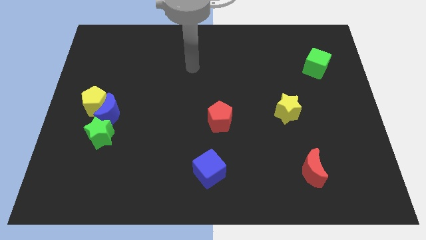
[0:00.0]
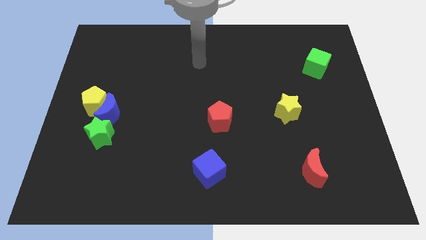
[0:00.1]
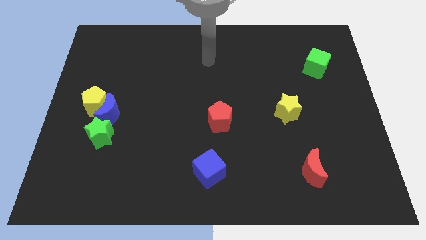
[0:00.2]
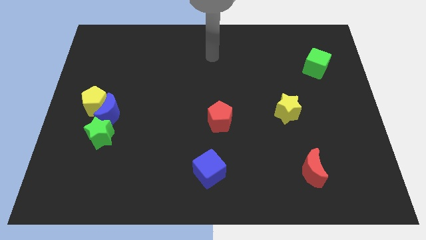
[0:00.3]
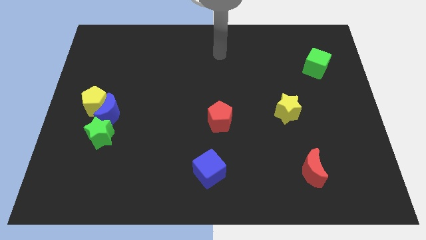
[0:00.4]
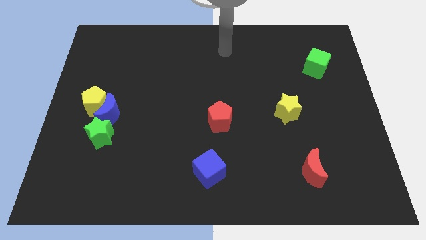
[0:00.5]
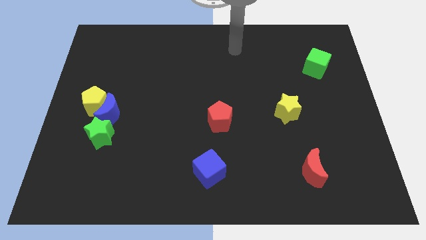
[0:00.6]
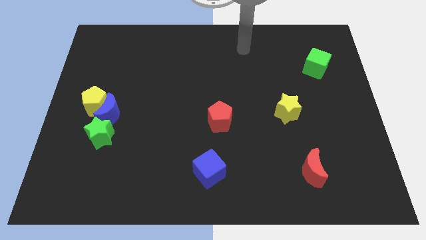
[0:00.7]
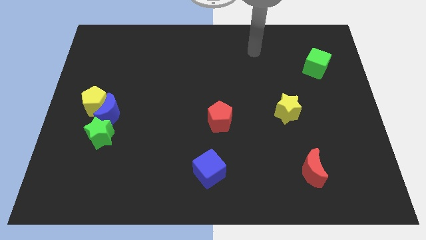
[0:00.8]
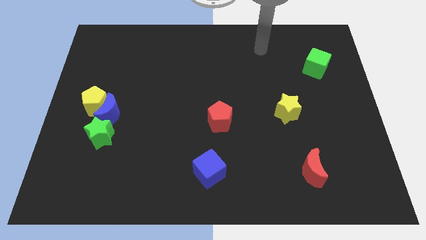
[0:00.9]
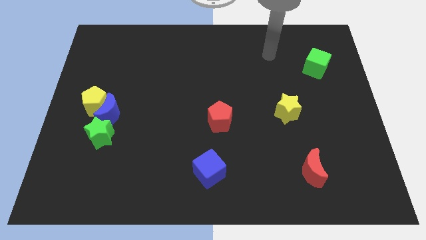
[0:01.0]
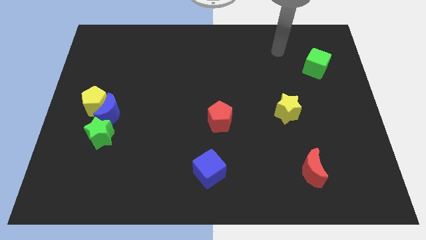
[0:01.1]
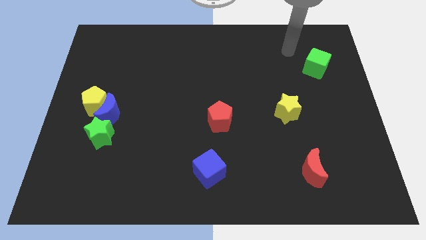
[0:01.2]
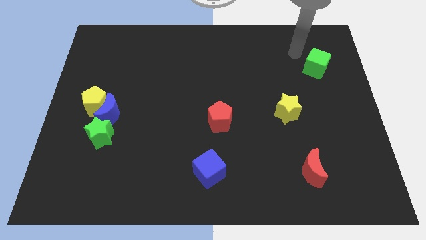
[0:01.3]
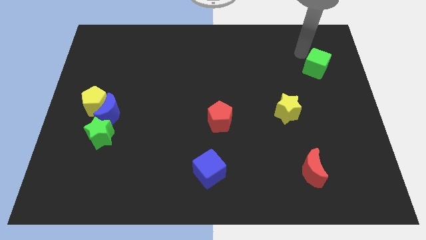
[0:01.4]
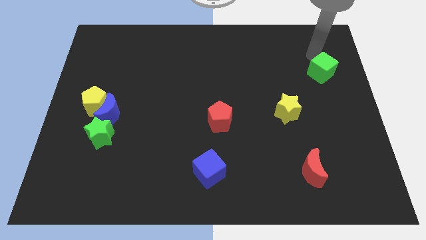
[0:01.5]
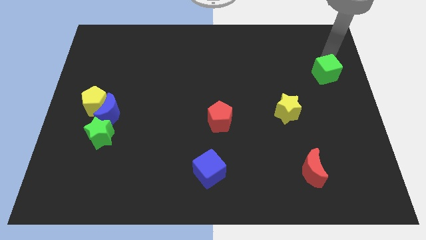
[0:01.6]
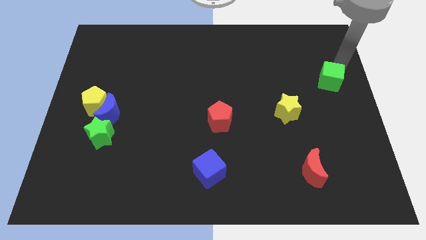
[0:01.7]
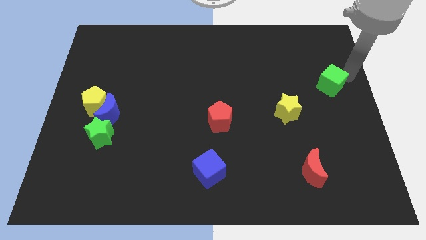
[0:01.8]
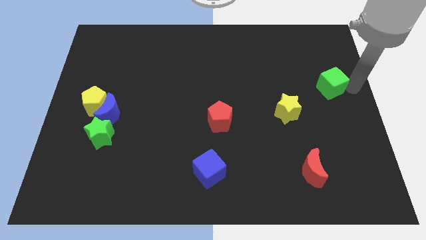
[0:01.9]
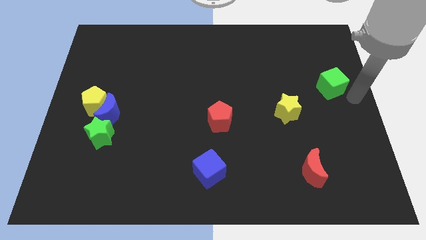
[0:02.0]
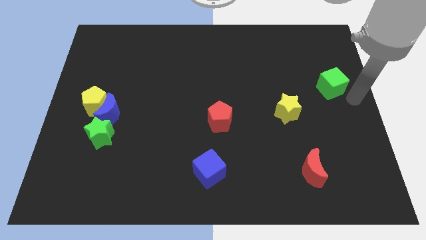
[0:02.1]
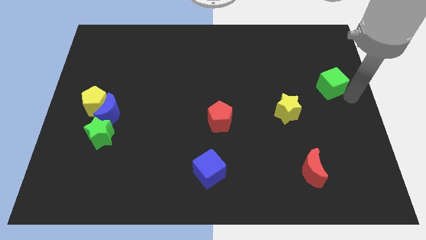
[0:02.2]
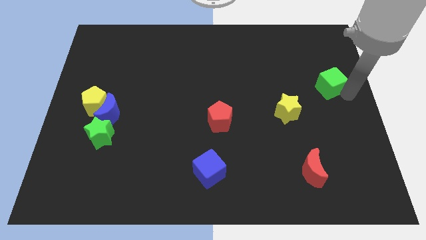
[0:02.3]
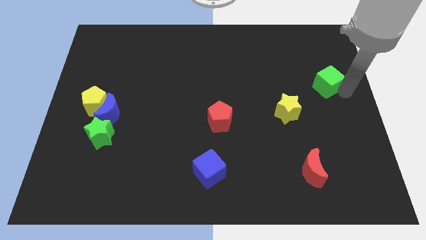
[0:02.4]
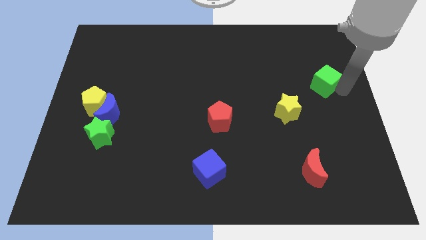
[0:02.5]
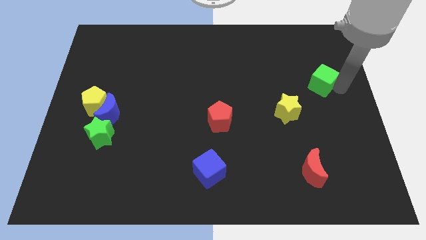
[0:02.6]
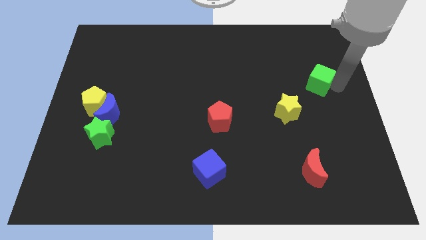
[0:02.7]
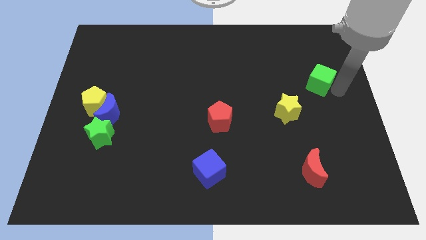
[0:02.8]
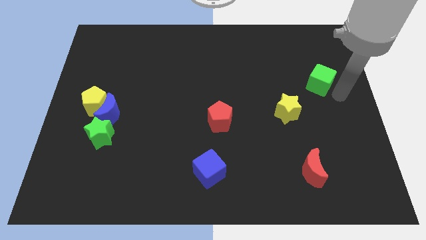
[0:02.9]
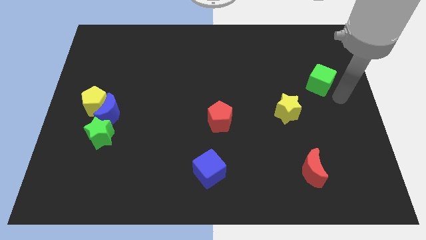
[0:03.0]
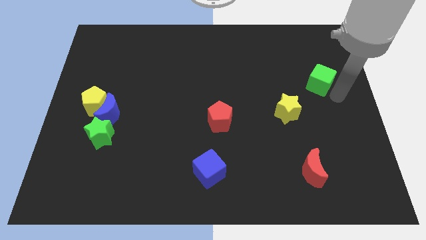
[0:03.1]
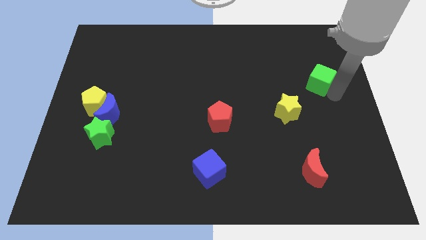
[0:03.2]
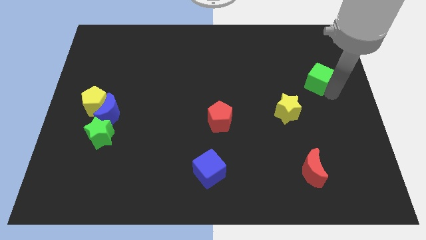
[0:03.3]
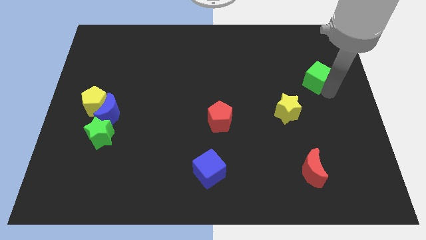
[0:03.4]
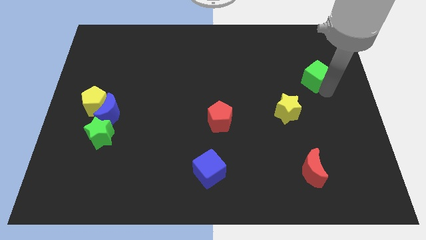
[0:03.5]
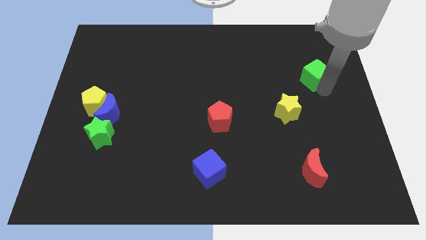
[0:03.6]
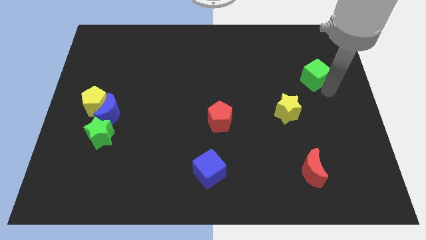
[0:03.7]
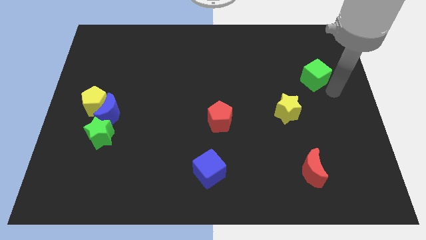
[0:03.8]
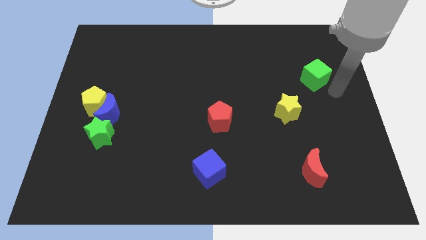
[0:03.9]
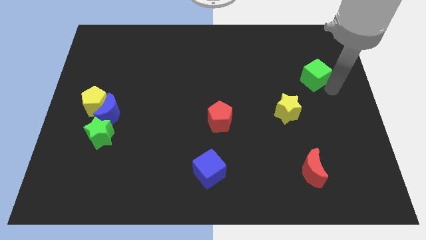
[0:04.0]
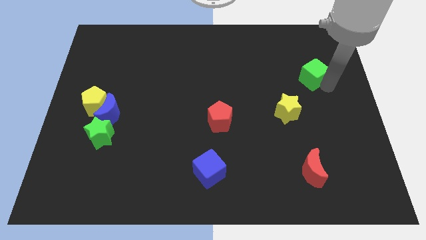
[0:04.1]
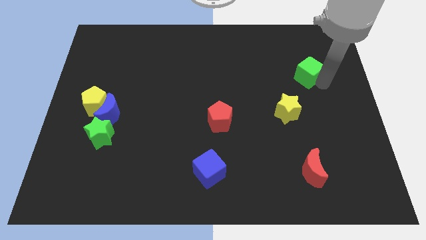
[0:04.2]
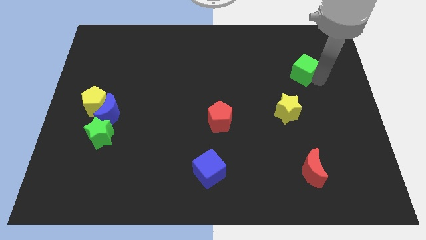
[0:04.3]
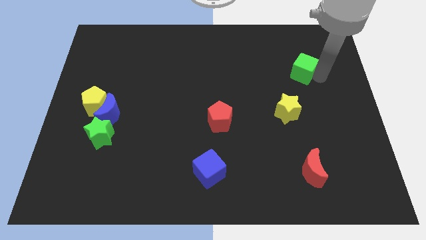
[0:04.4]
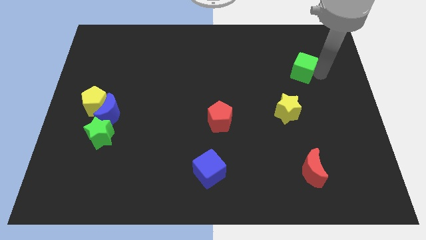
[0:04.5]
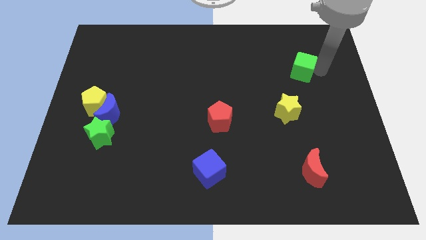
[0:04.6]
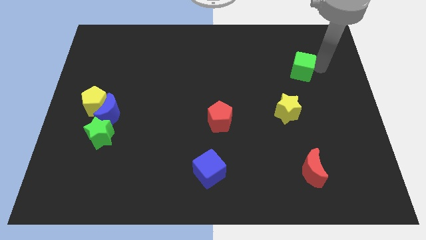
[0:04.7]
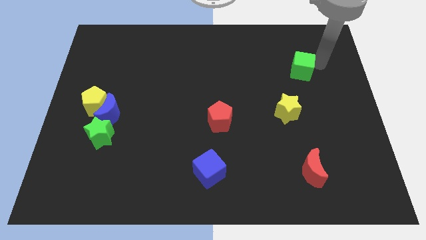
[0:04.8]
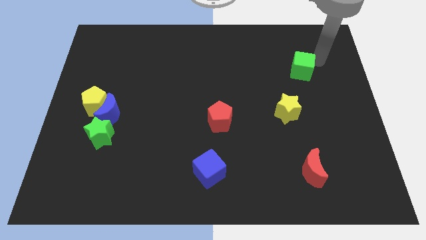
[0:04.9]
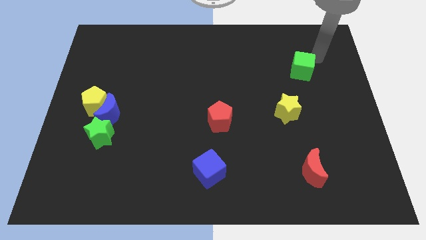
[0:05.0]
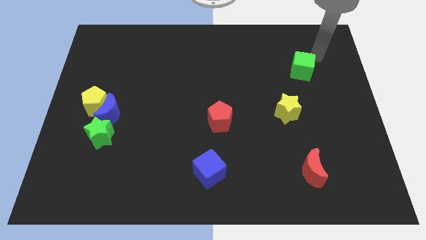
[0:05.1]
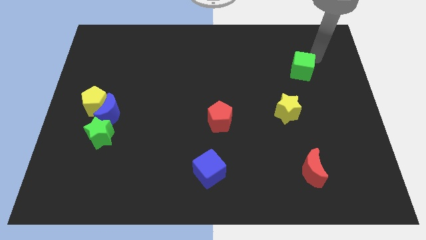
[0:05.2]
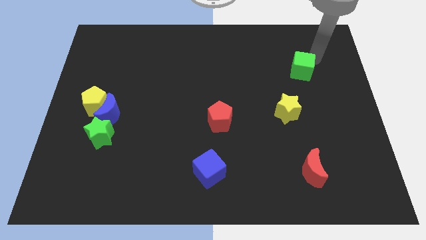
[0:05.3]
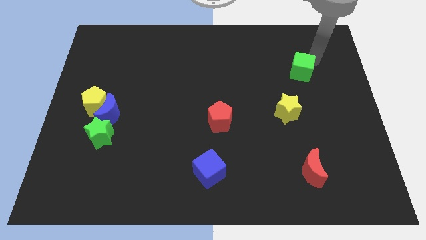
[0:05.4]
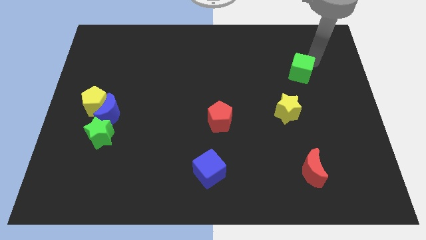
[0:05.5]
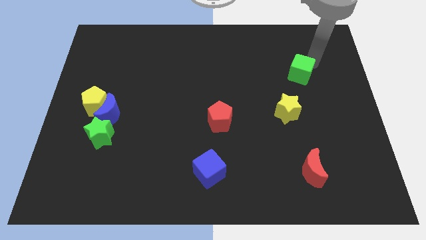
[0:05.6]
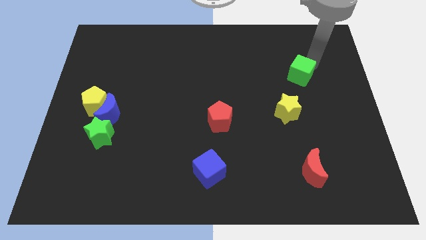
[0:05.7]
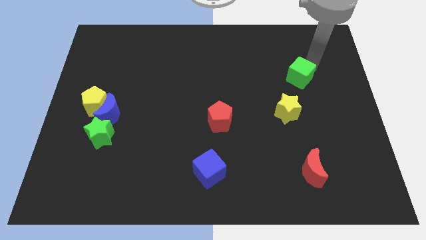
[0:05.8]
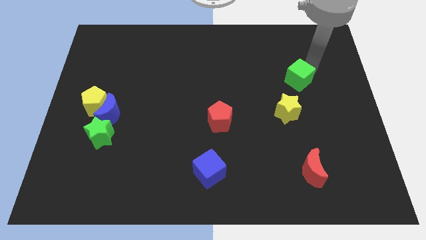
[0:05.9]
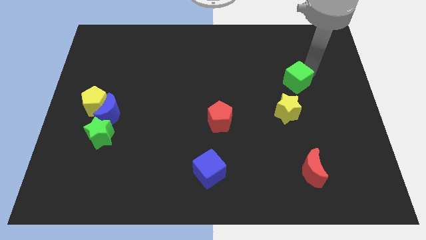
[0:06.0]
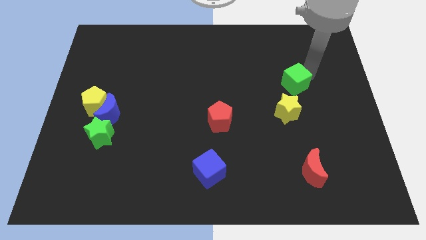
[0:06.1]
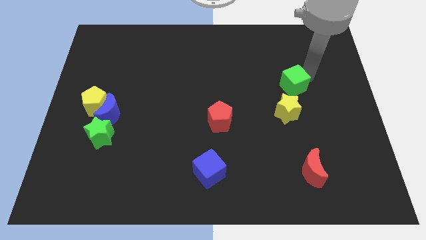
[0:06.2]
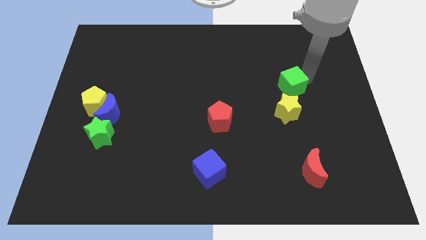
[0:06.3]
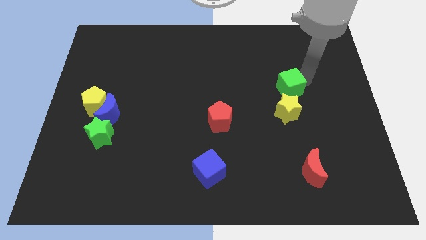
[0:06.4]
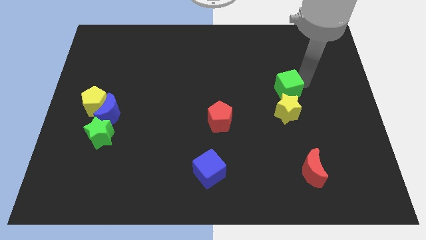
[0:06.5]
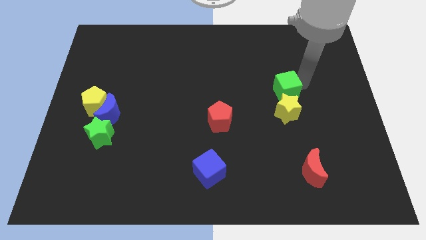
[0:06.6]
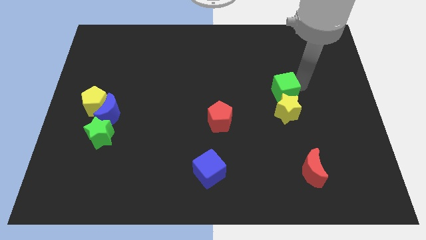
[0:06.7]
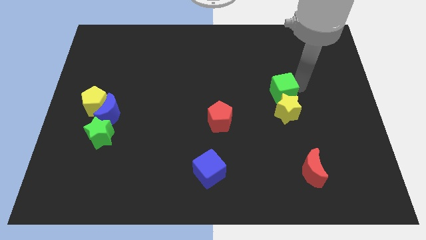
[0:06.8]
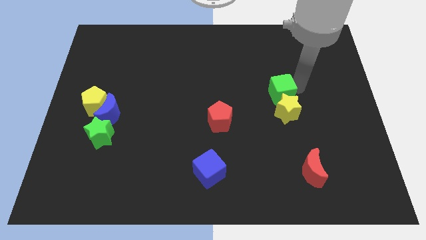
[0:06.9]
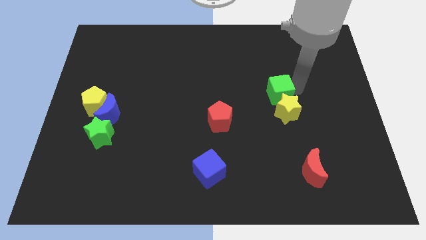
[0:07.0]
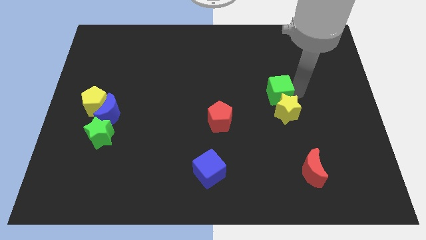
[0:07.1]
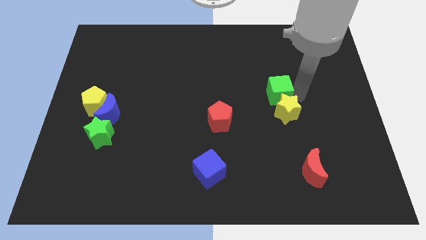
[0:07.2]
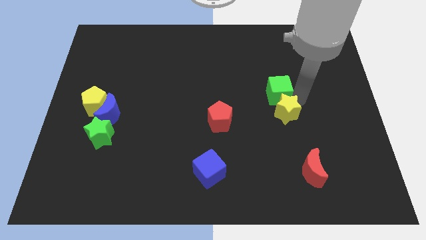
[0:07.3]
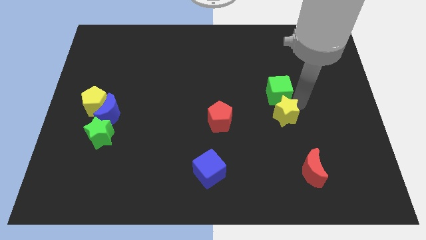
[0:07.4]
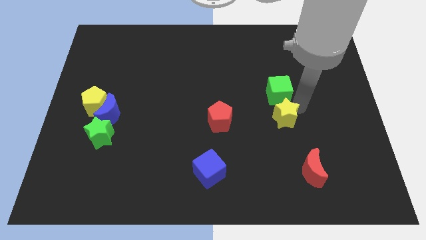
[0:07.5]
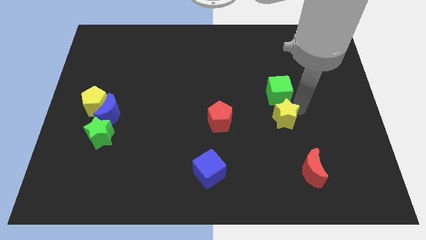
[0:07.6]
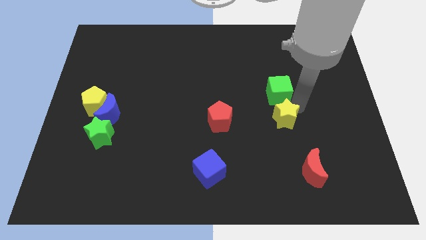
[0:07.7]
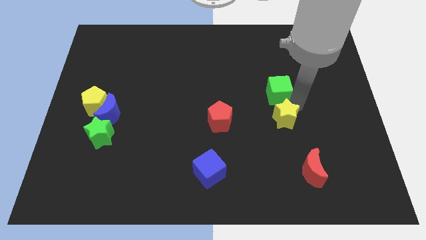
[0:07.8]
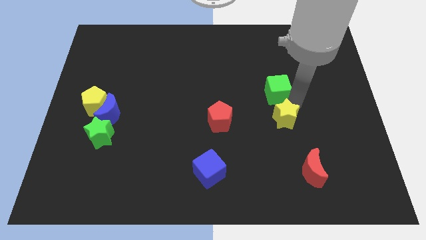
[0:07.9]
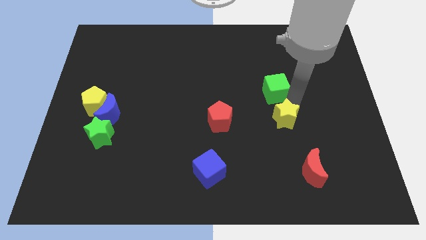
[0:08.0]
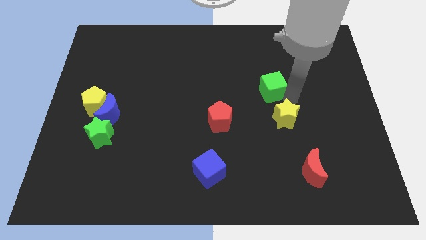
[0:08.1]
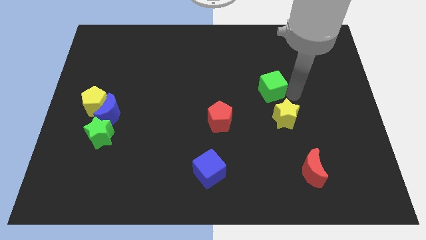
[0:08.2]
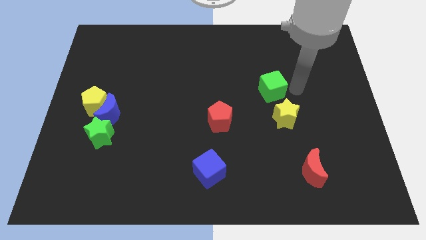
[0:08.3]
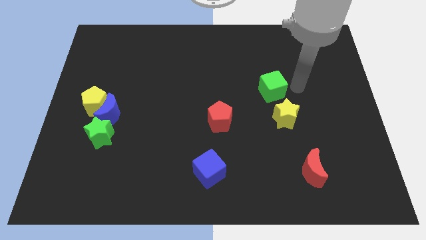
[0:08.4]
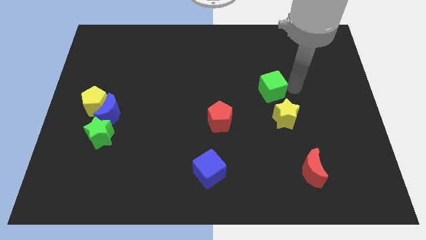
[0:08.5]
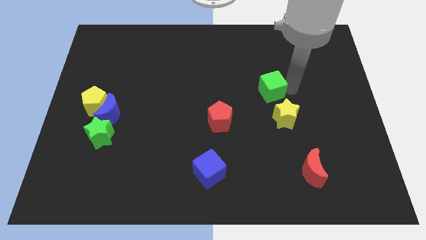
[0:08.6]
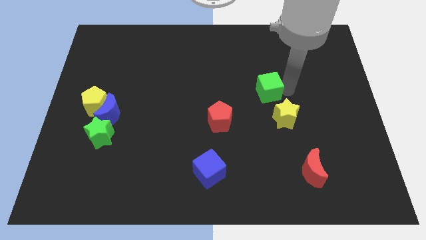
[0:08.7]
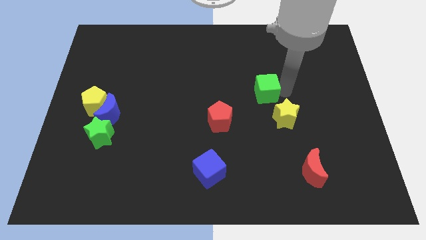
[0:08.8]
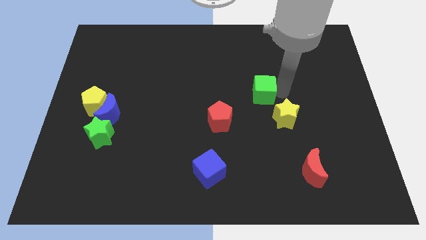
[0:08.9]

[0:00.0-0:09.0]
move the green cube to the middle
